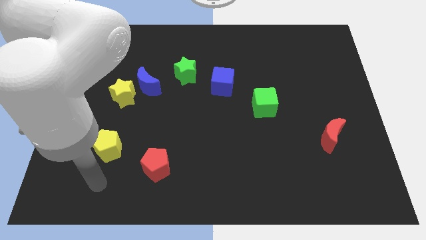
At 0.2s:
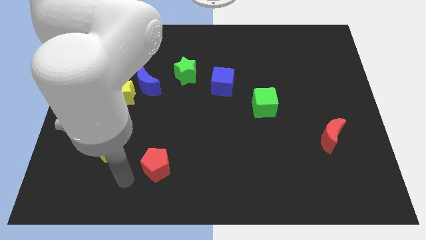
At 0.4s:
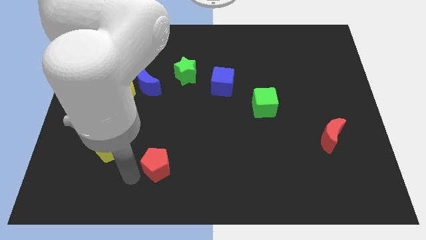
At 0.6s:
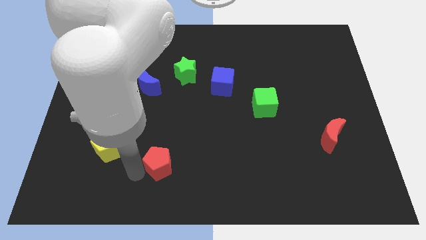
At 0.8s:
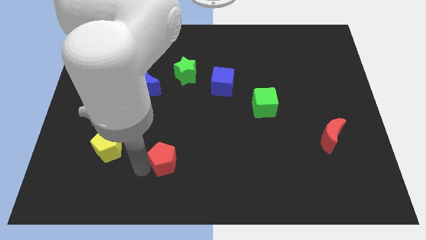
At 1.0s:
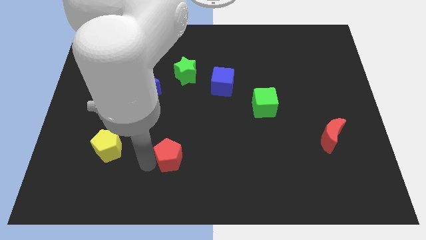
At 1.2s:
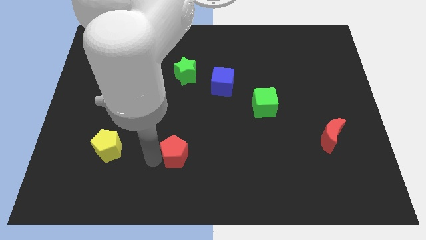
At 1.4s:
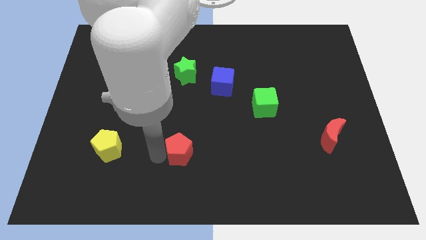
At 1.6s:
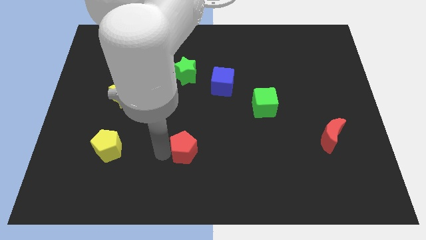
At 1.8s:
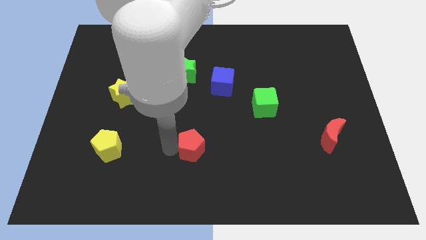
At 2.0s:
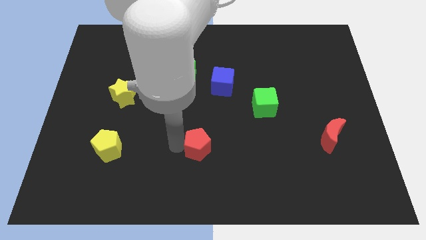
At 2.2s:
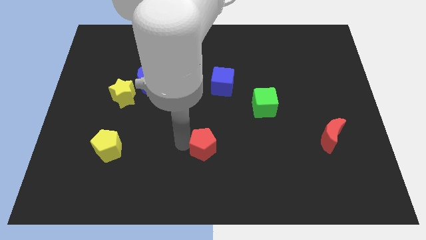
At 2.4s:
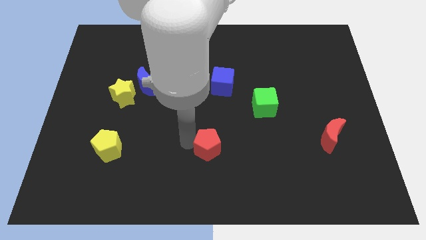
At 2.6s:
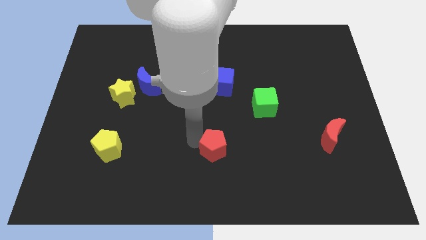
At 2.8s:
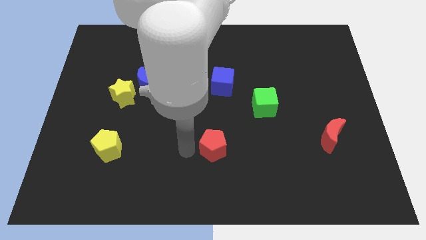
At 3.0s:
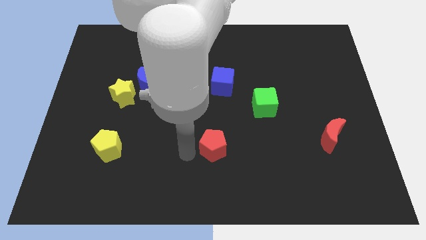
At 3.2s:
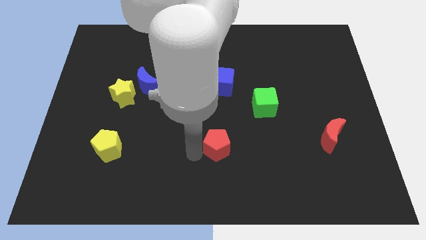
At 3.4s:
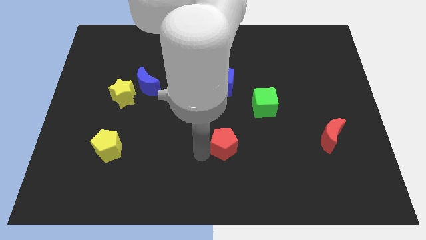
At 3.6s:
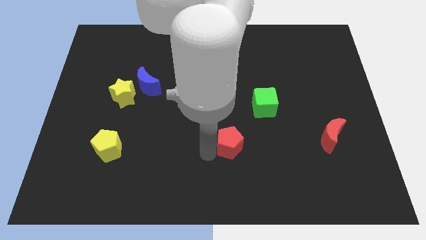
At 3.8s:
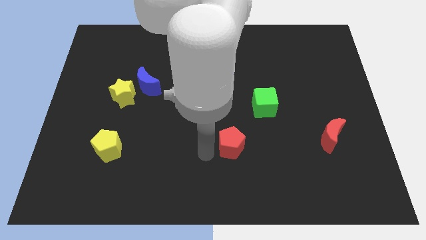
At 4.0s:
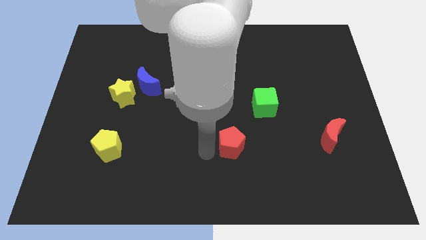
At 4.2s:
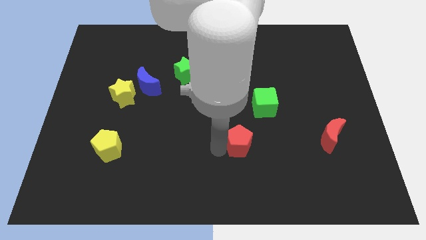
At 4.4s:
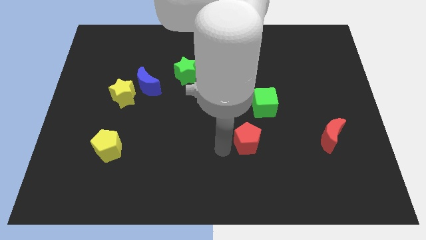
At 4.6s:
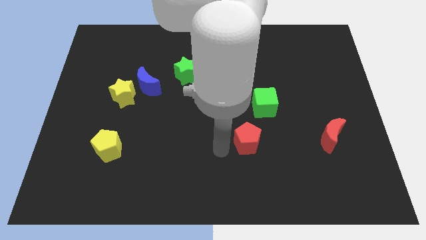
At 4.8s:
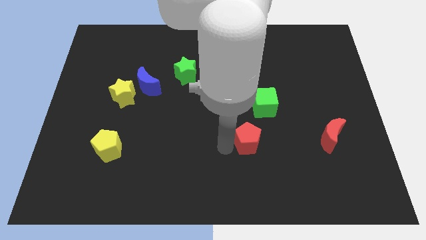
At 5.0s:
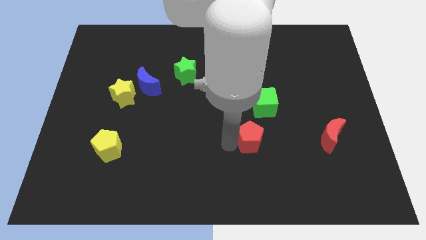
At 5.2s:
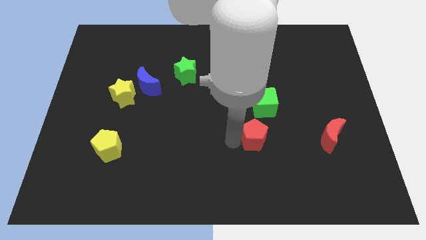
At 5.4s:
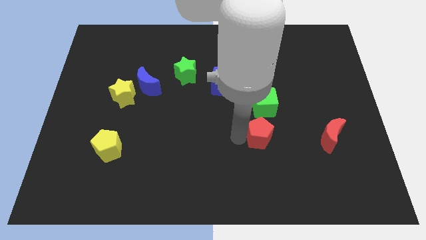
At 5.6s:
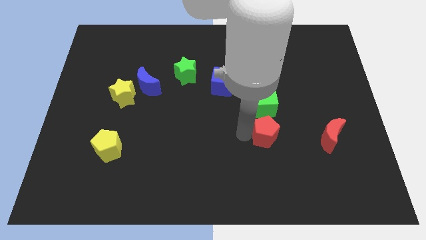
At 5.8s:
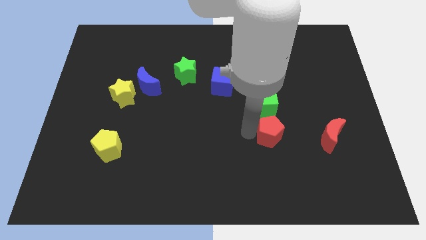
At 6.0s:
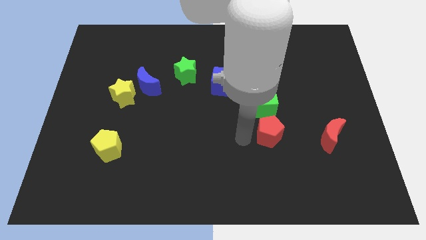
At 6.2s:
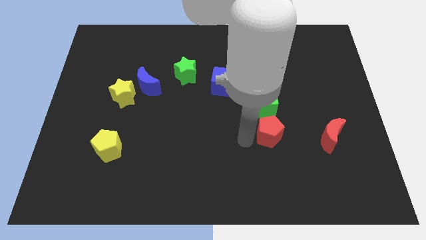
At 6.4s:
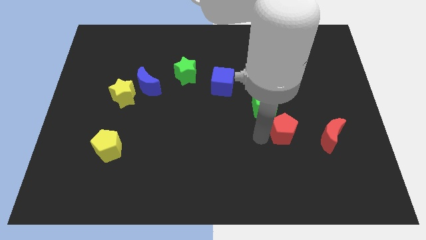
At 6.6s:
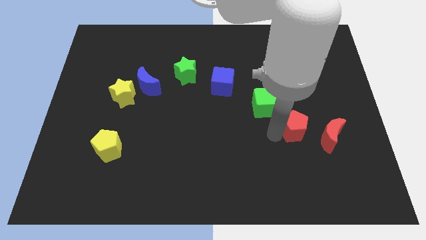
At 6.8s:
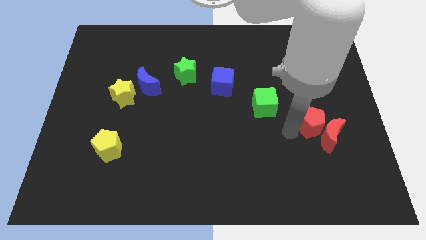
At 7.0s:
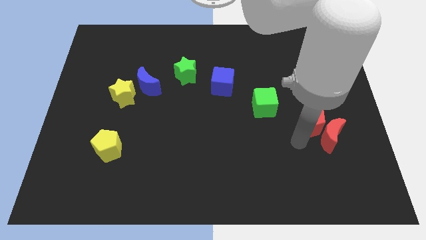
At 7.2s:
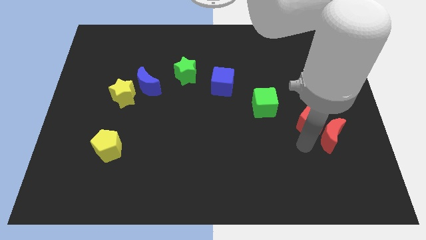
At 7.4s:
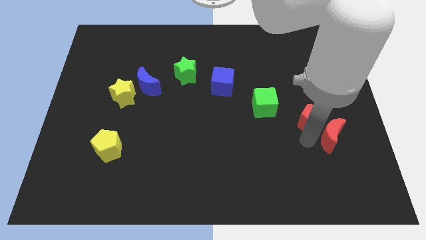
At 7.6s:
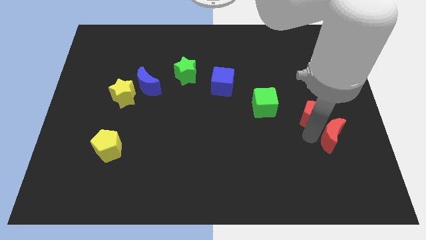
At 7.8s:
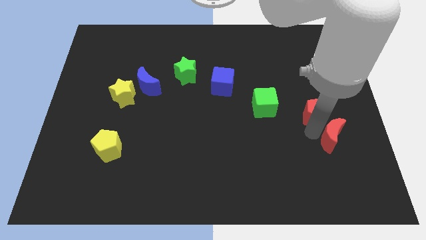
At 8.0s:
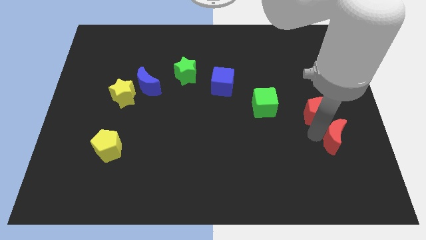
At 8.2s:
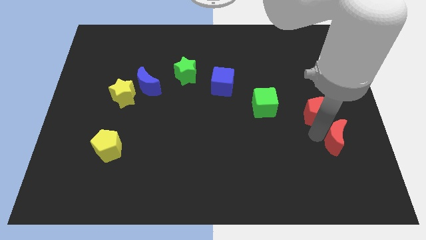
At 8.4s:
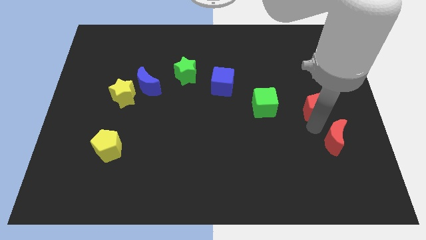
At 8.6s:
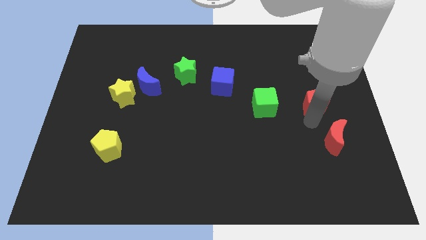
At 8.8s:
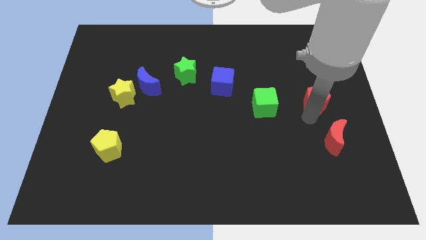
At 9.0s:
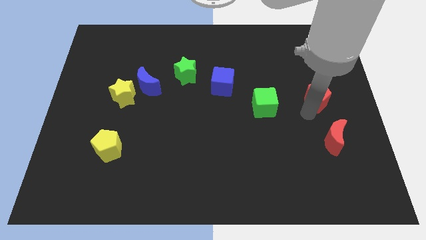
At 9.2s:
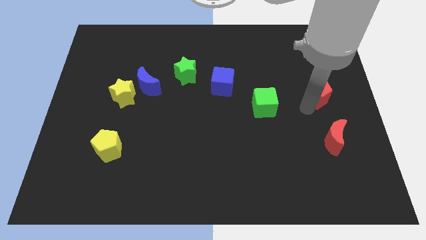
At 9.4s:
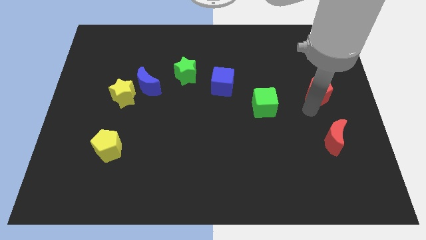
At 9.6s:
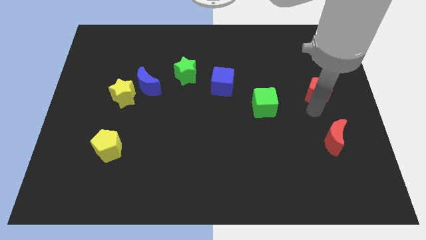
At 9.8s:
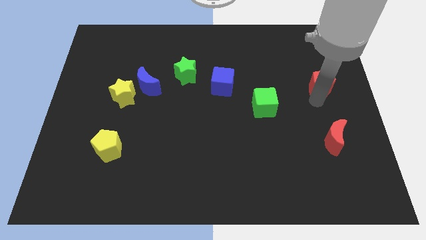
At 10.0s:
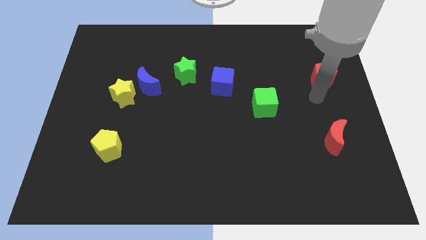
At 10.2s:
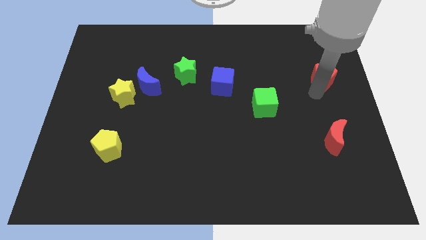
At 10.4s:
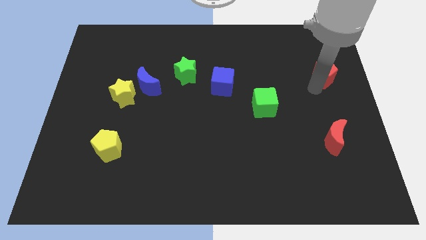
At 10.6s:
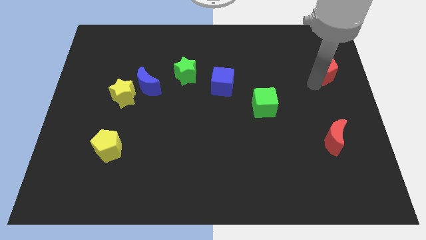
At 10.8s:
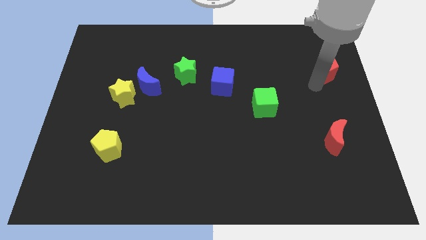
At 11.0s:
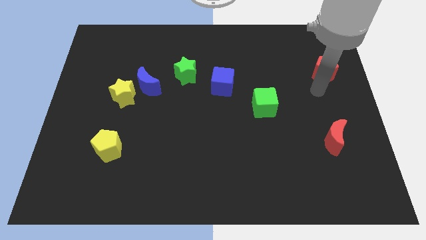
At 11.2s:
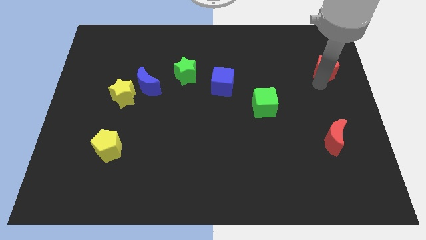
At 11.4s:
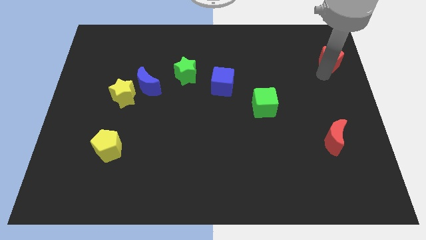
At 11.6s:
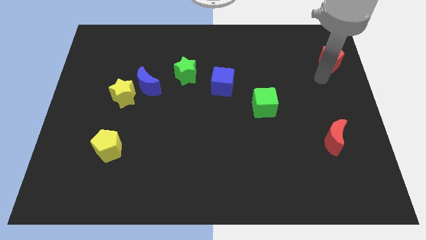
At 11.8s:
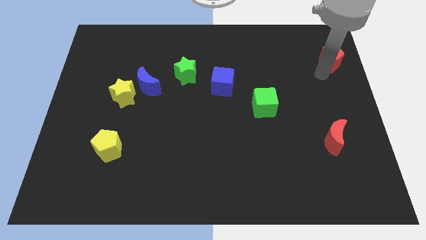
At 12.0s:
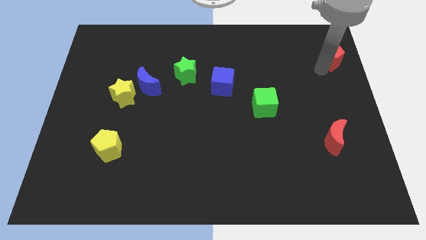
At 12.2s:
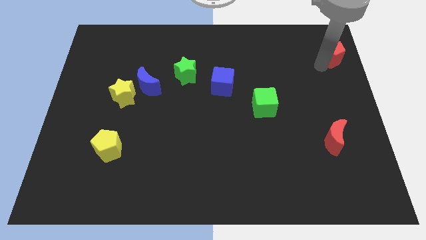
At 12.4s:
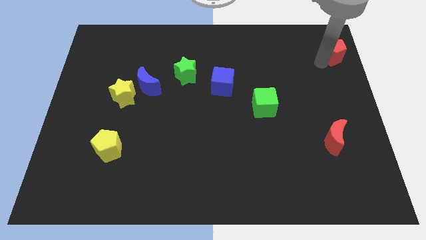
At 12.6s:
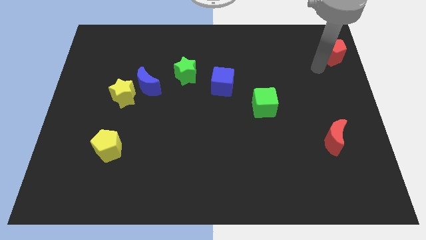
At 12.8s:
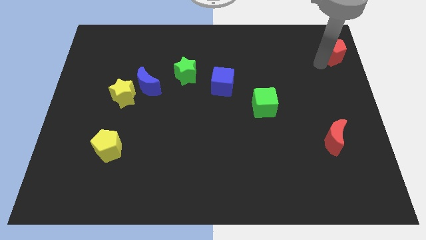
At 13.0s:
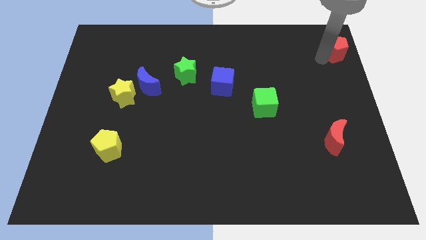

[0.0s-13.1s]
put the red pentagon to the top right

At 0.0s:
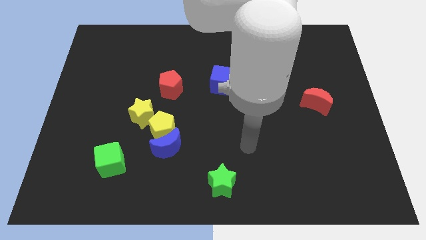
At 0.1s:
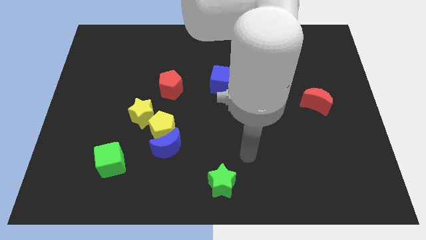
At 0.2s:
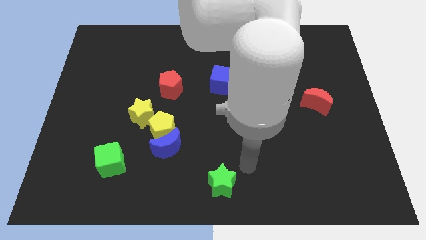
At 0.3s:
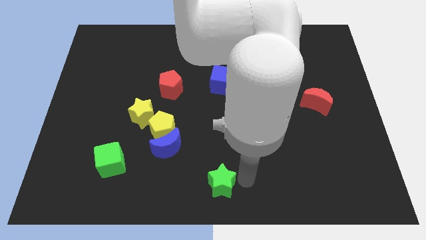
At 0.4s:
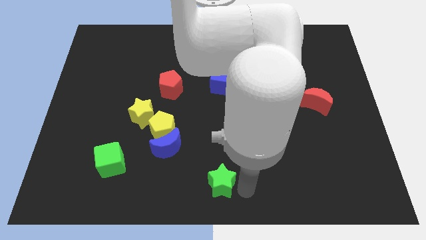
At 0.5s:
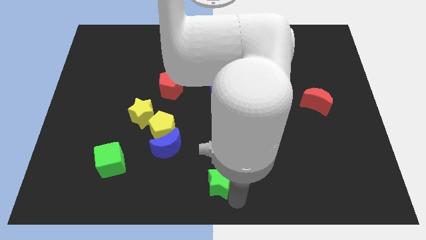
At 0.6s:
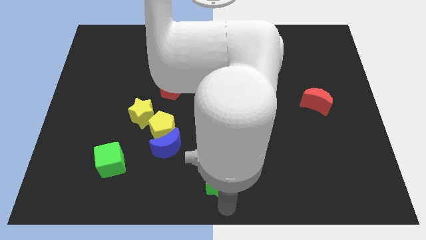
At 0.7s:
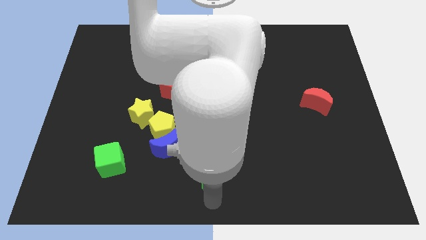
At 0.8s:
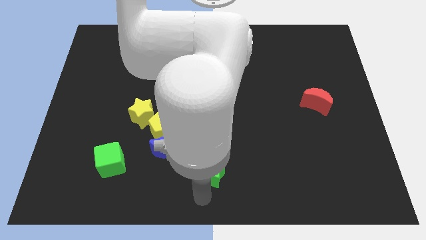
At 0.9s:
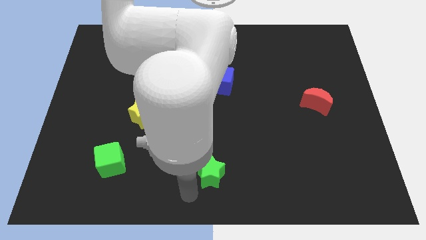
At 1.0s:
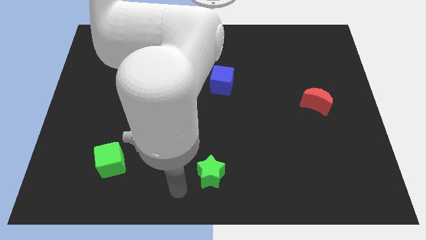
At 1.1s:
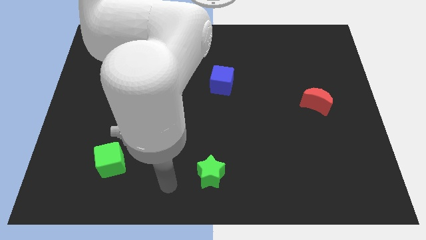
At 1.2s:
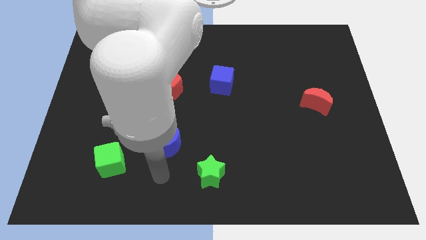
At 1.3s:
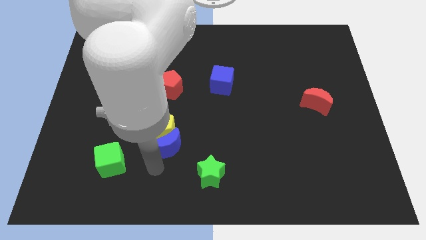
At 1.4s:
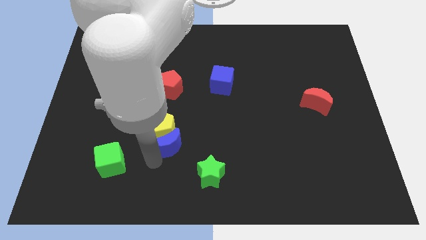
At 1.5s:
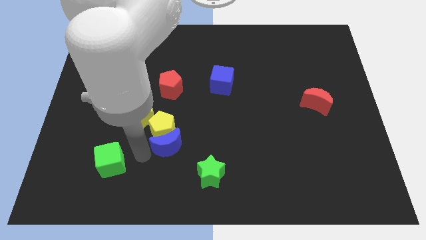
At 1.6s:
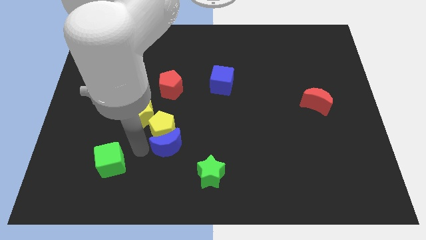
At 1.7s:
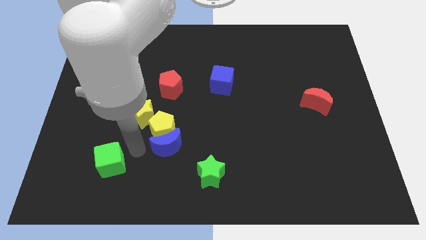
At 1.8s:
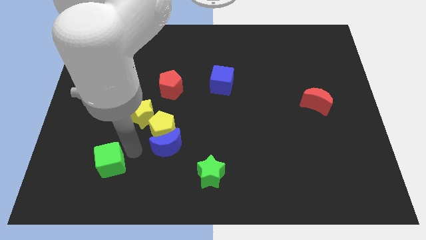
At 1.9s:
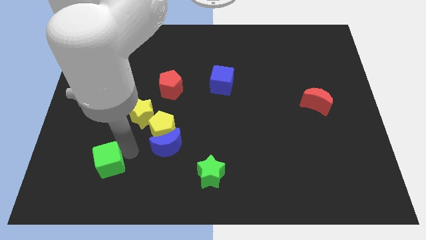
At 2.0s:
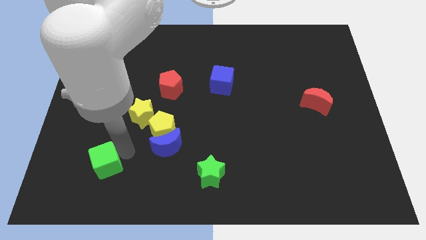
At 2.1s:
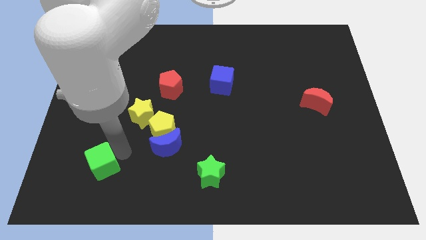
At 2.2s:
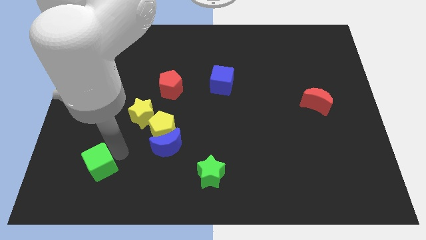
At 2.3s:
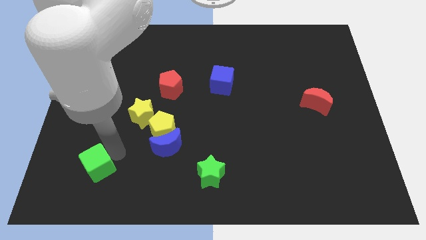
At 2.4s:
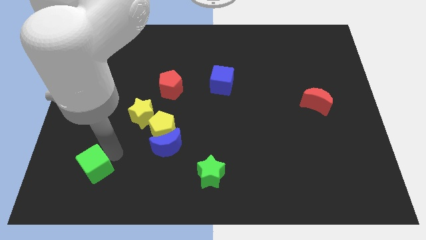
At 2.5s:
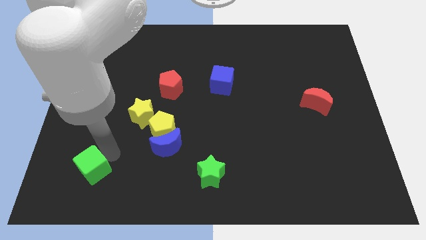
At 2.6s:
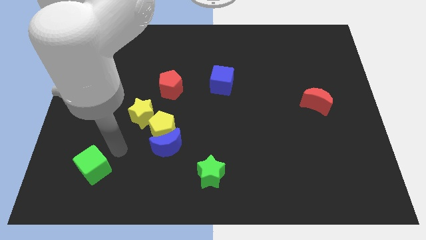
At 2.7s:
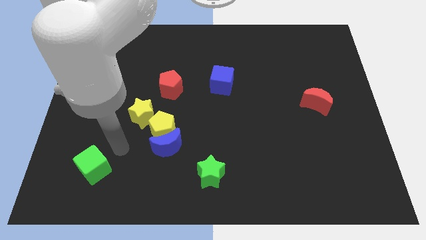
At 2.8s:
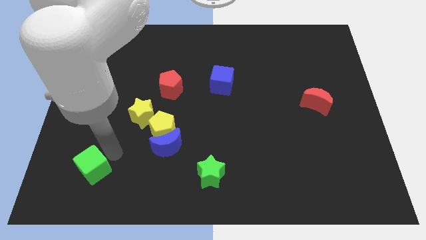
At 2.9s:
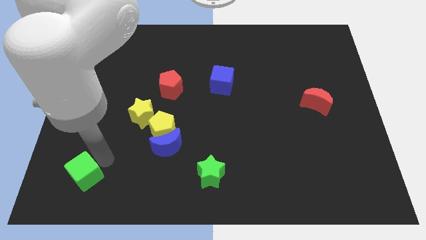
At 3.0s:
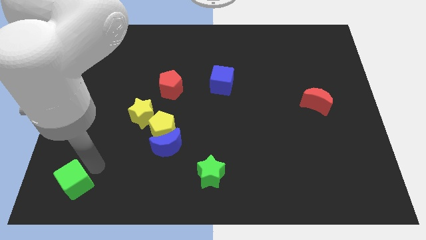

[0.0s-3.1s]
move the green cube to the bottom left of the board
